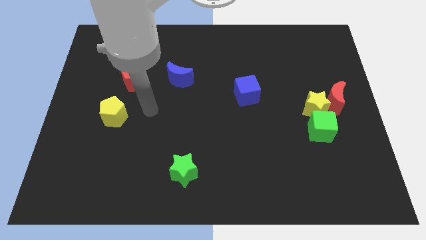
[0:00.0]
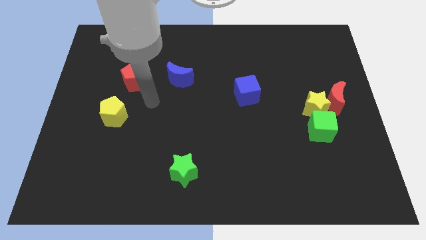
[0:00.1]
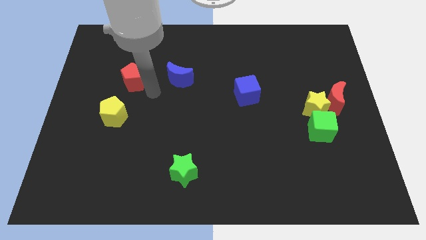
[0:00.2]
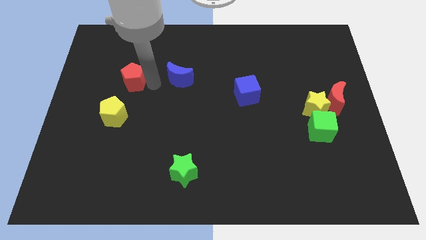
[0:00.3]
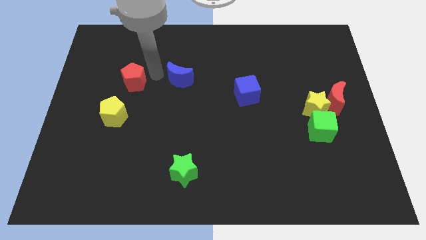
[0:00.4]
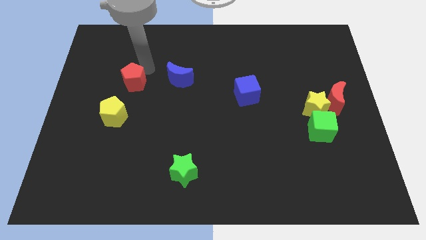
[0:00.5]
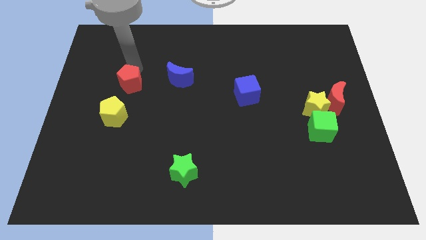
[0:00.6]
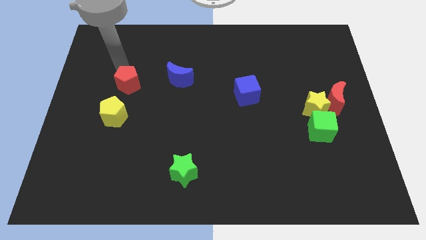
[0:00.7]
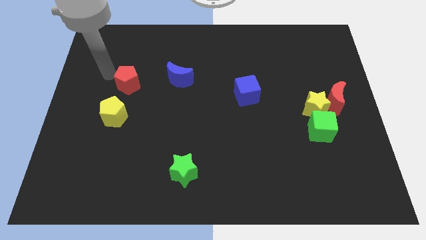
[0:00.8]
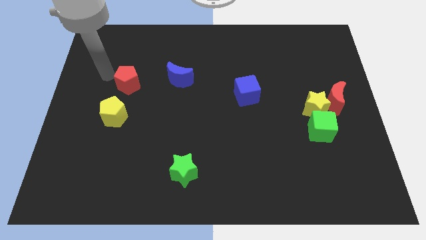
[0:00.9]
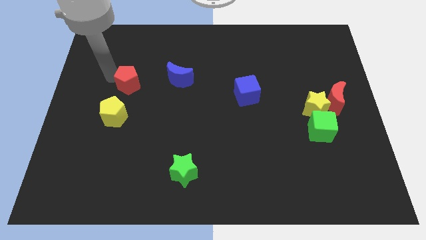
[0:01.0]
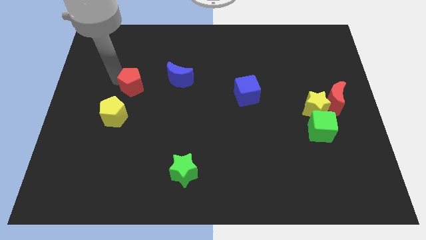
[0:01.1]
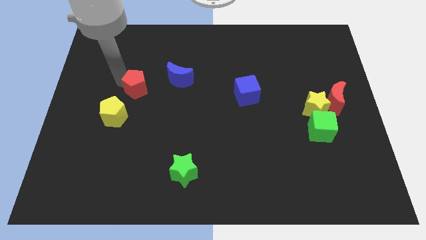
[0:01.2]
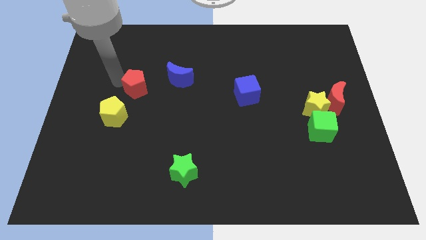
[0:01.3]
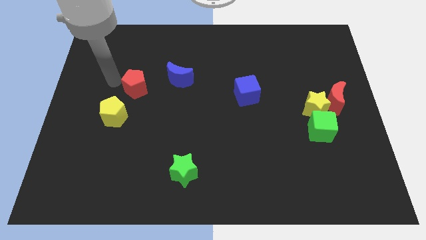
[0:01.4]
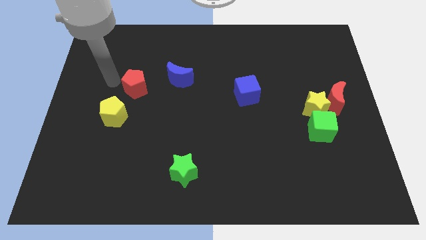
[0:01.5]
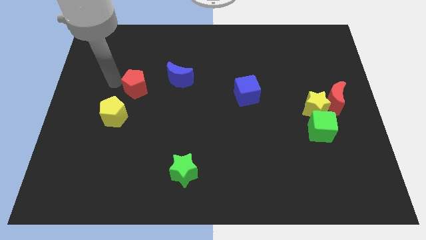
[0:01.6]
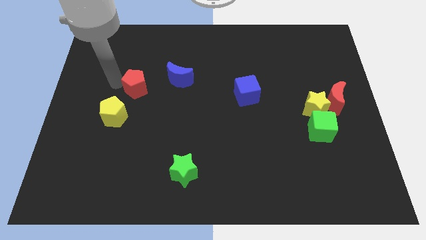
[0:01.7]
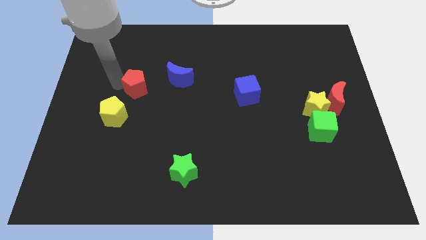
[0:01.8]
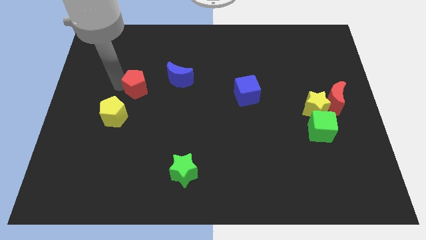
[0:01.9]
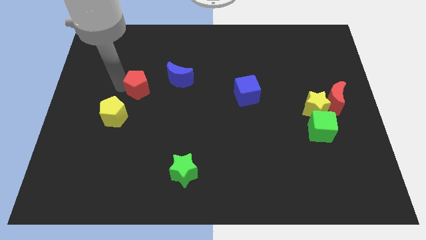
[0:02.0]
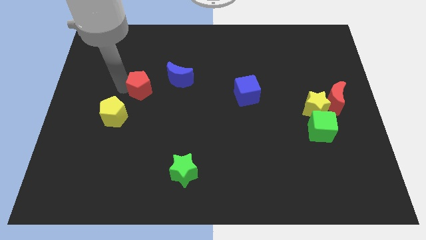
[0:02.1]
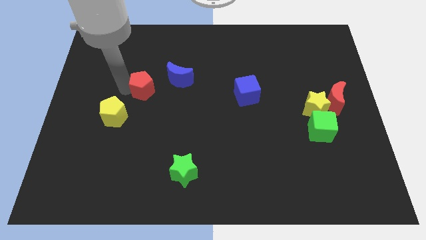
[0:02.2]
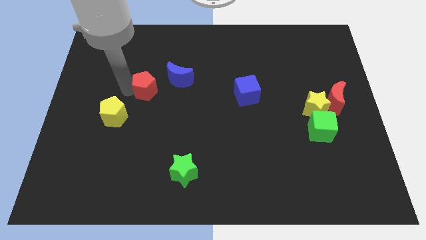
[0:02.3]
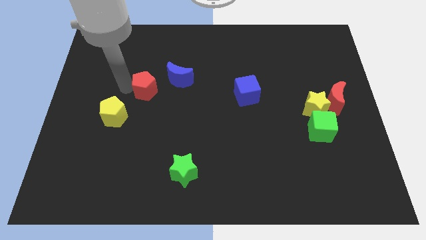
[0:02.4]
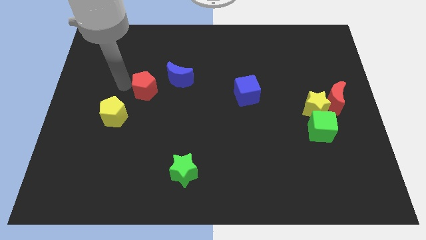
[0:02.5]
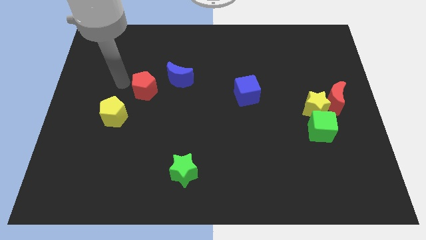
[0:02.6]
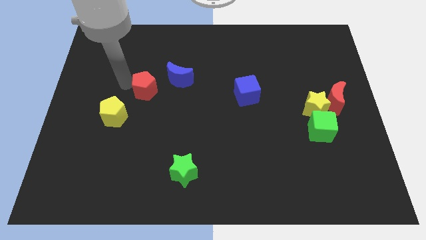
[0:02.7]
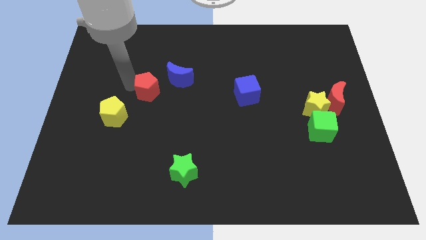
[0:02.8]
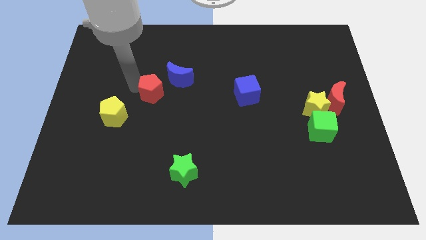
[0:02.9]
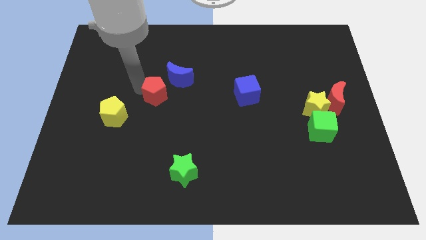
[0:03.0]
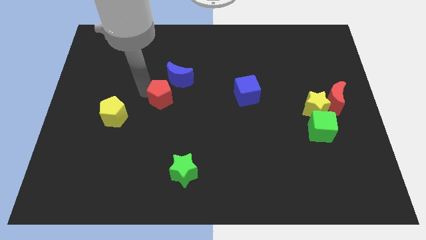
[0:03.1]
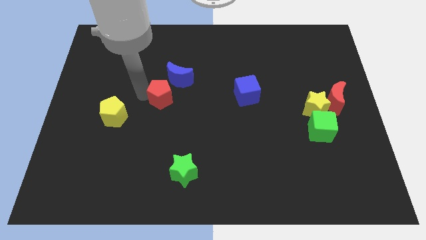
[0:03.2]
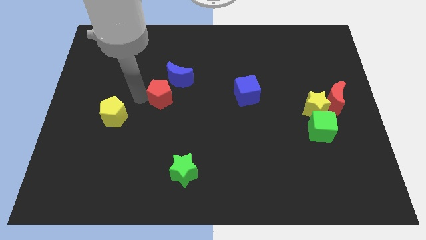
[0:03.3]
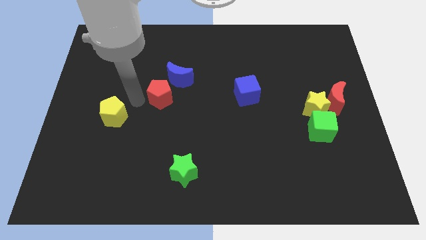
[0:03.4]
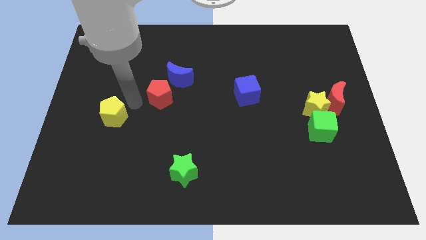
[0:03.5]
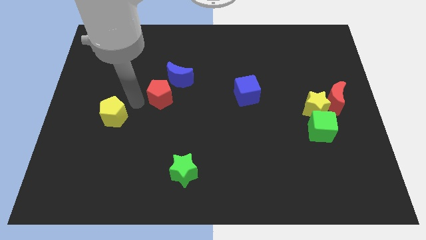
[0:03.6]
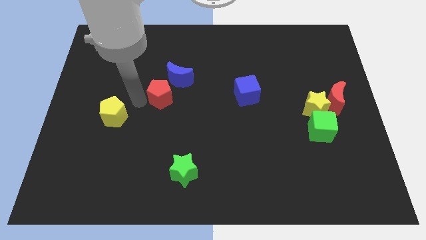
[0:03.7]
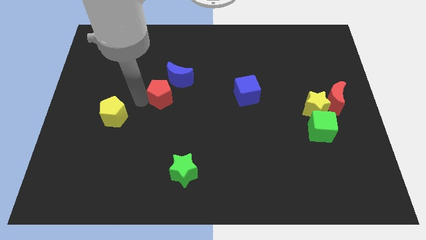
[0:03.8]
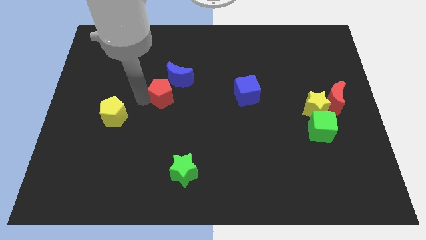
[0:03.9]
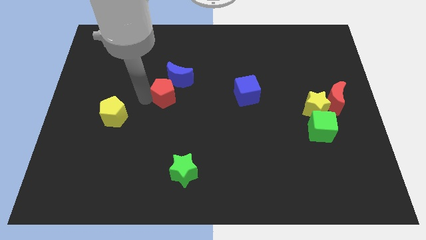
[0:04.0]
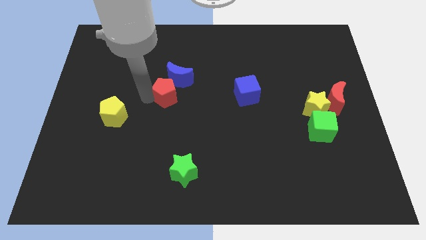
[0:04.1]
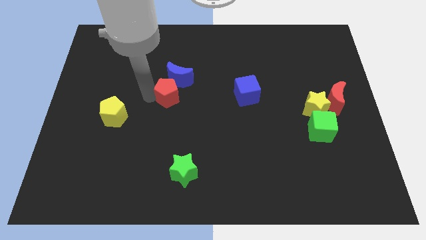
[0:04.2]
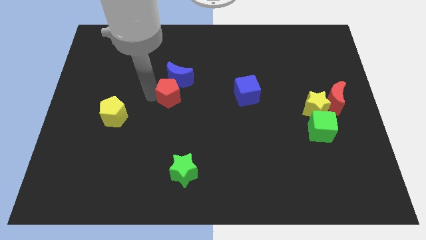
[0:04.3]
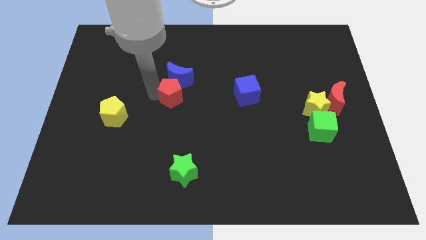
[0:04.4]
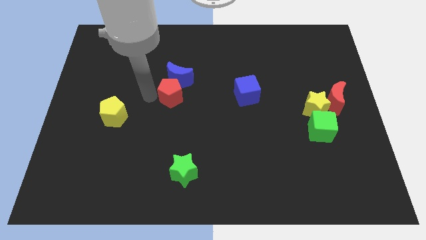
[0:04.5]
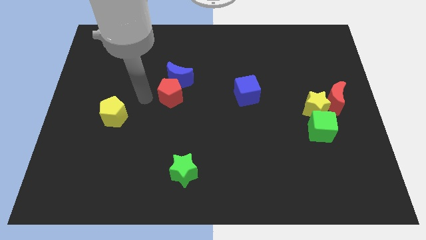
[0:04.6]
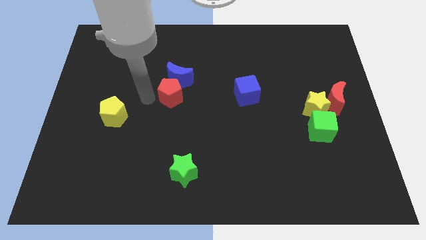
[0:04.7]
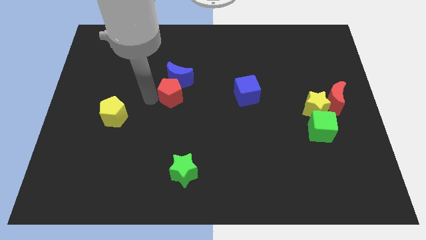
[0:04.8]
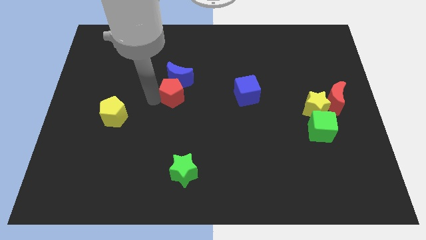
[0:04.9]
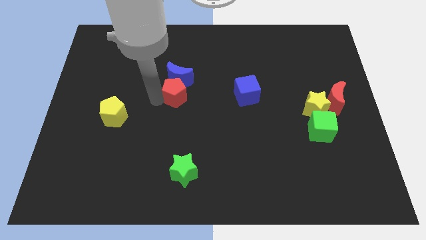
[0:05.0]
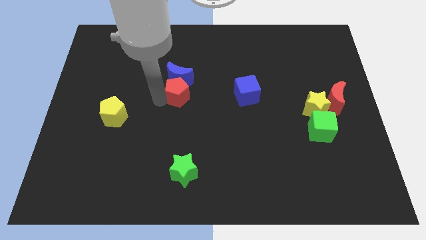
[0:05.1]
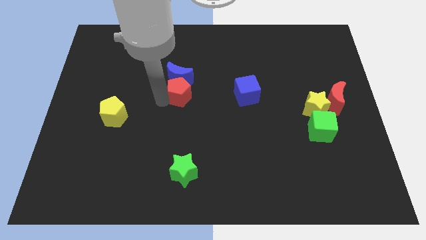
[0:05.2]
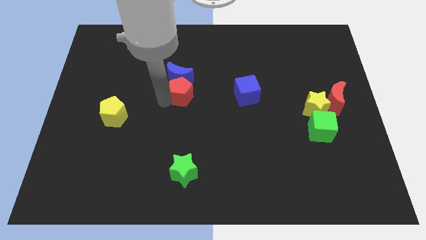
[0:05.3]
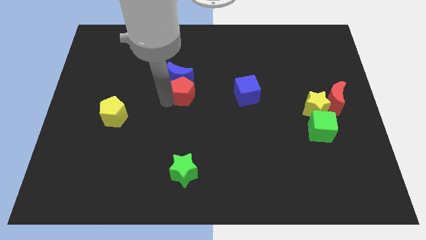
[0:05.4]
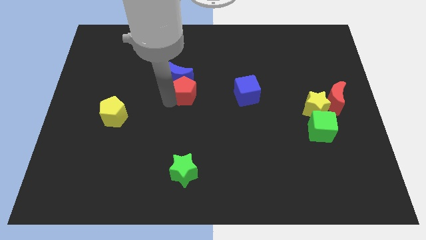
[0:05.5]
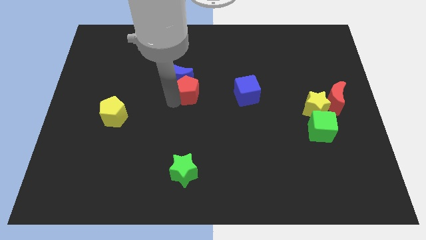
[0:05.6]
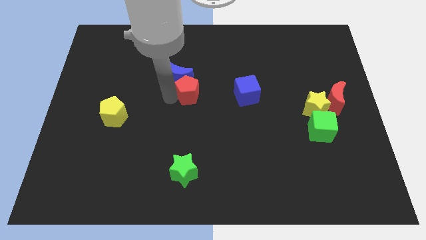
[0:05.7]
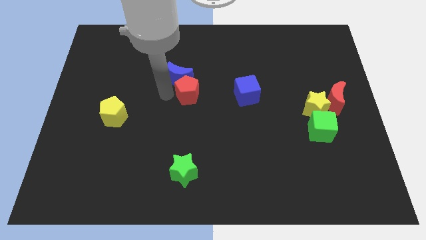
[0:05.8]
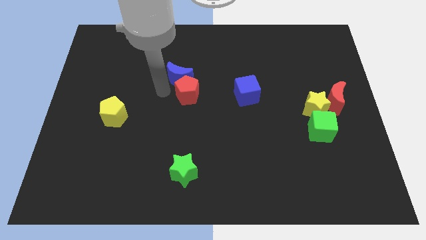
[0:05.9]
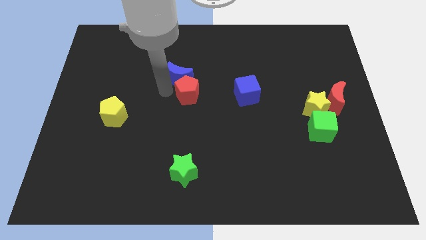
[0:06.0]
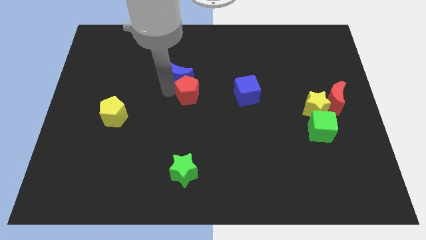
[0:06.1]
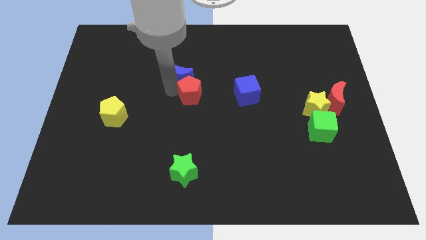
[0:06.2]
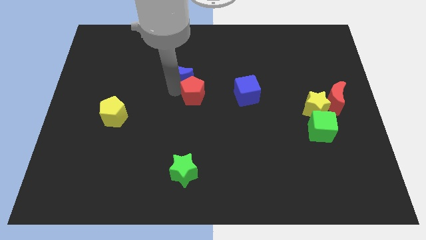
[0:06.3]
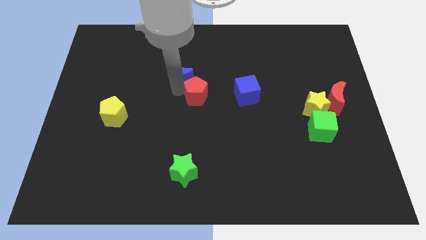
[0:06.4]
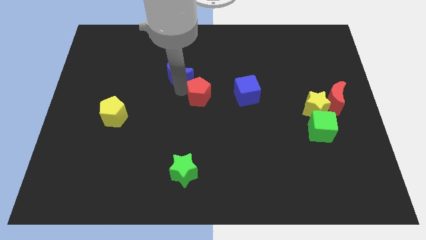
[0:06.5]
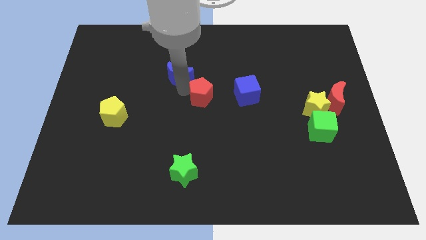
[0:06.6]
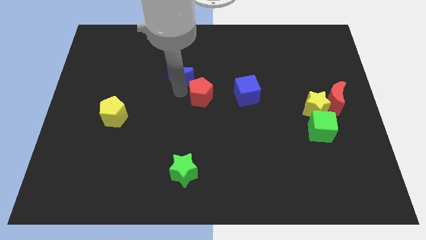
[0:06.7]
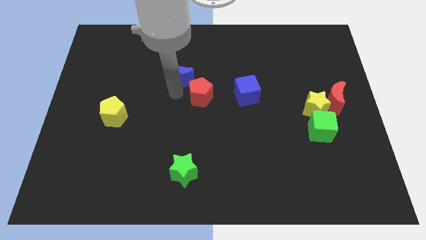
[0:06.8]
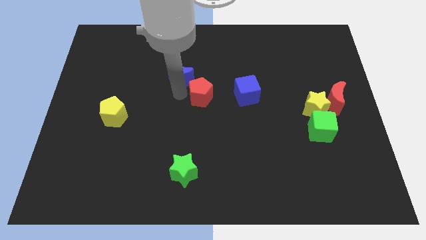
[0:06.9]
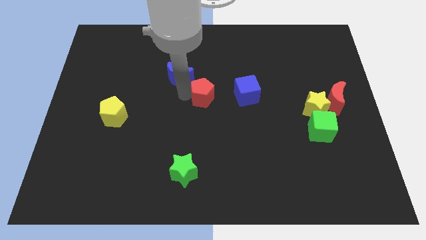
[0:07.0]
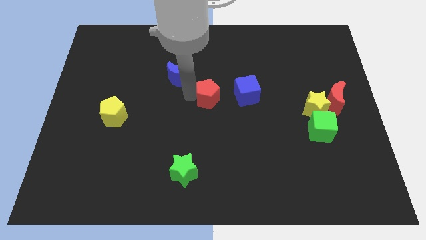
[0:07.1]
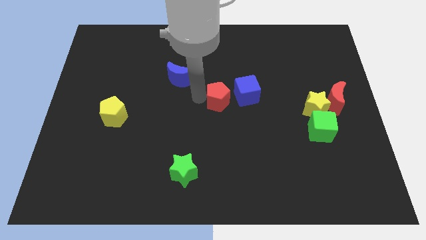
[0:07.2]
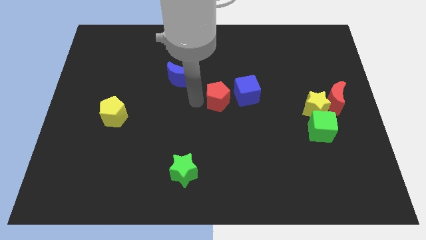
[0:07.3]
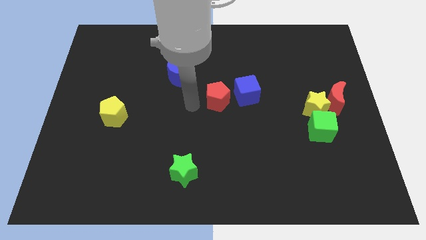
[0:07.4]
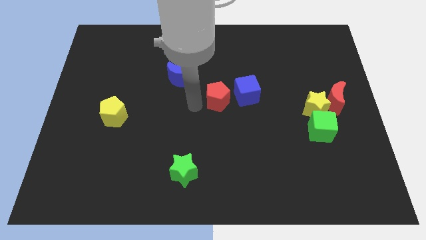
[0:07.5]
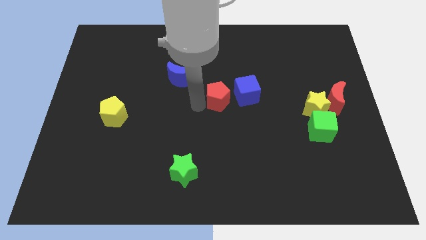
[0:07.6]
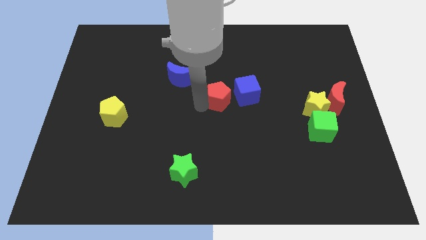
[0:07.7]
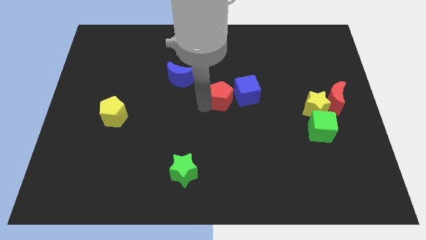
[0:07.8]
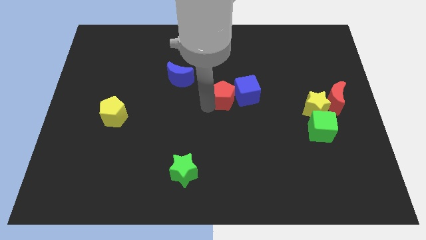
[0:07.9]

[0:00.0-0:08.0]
move the red pentagon next to the blue cube
